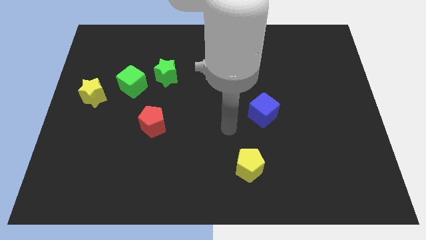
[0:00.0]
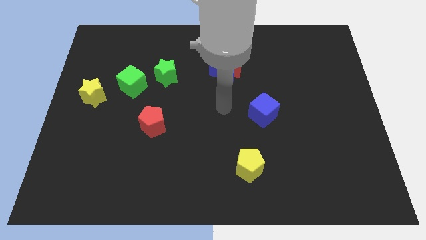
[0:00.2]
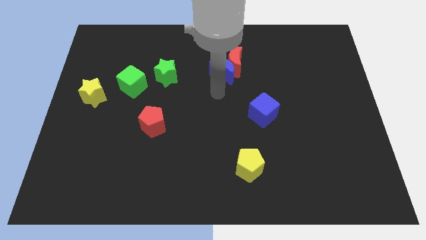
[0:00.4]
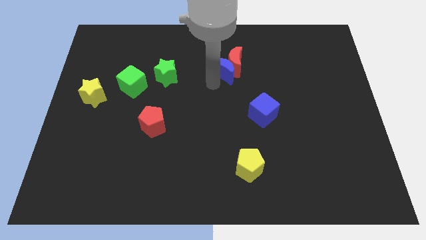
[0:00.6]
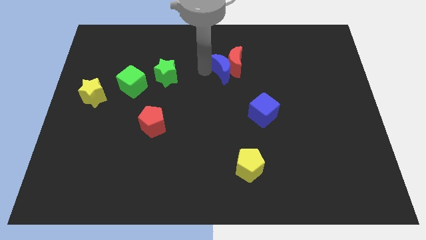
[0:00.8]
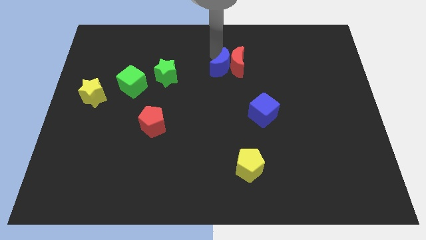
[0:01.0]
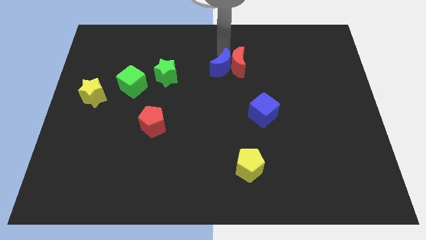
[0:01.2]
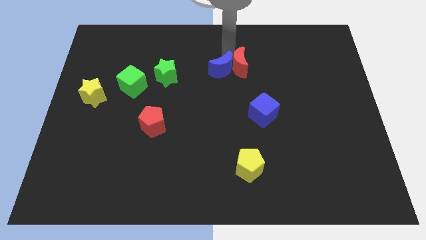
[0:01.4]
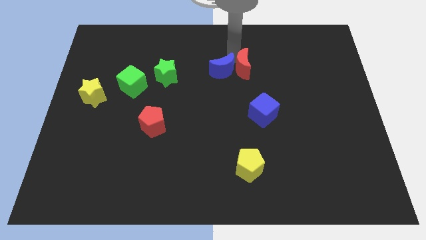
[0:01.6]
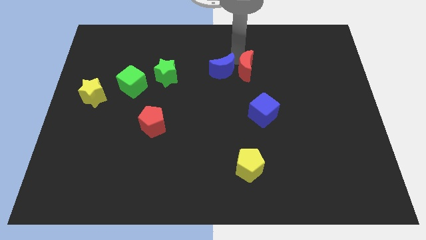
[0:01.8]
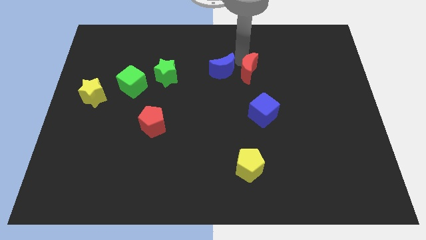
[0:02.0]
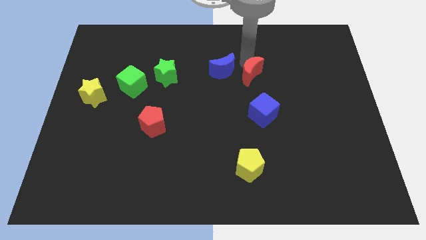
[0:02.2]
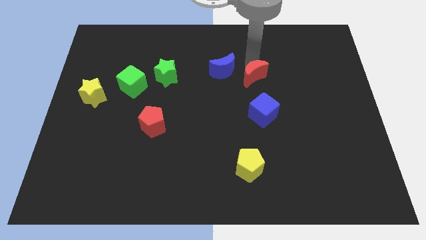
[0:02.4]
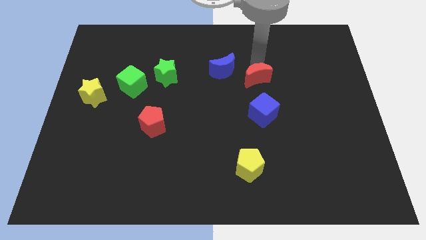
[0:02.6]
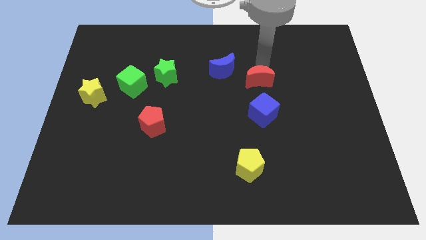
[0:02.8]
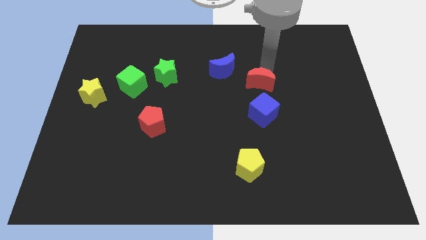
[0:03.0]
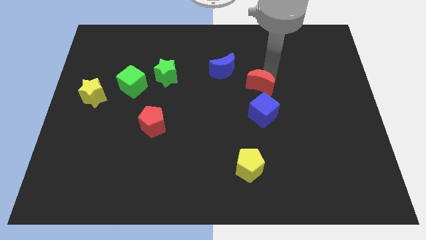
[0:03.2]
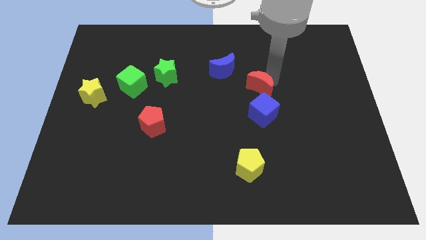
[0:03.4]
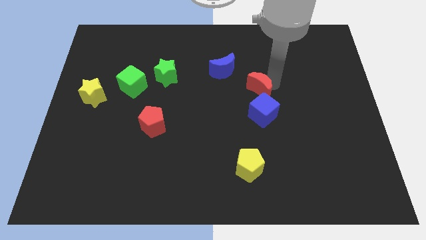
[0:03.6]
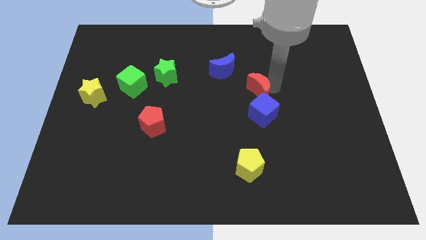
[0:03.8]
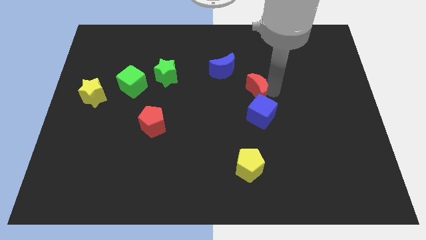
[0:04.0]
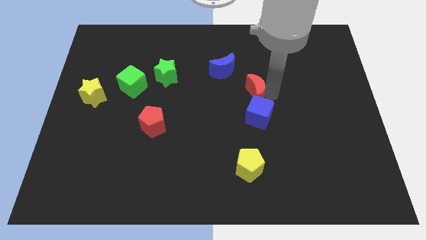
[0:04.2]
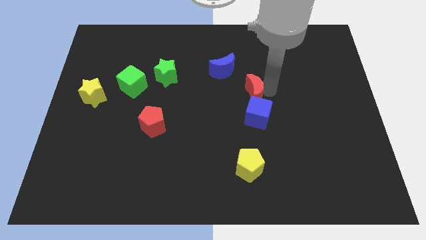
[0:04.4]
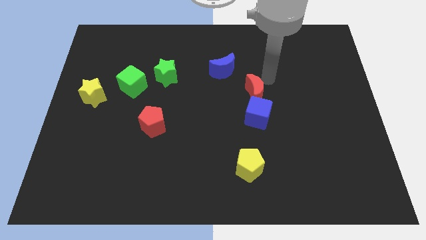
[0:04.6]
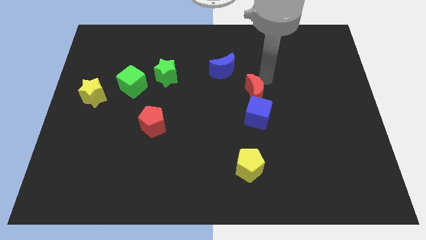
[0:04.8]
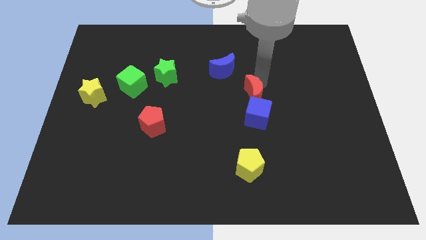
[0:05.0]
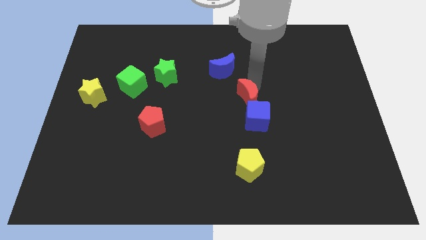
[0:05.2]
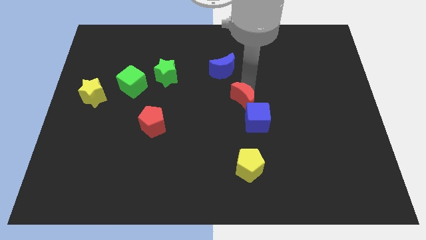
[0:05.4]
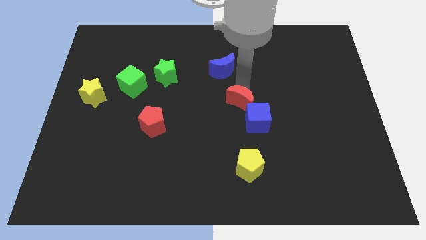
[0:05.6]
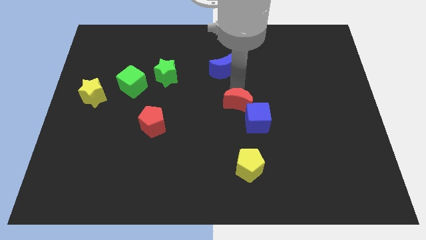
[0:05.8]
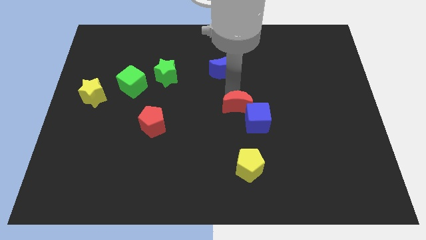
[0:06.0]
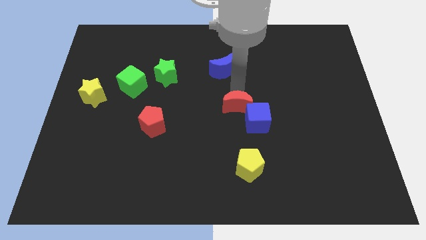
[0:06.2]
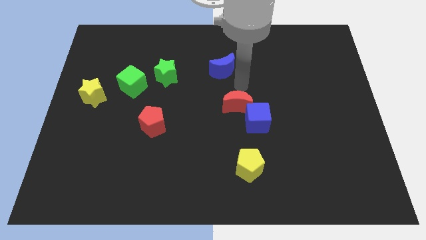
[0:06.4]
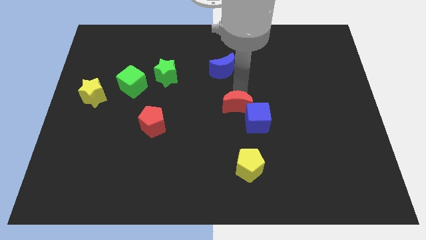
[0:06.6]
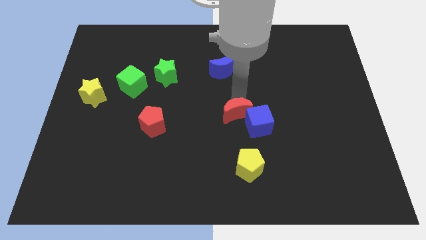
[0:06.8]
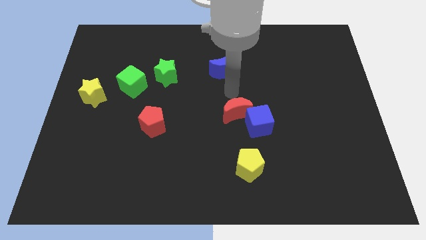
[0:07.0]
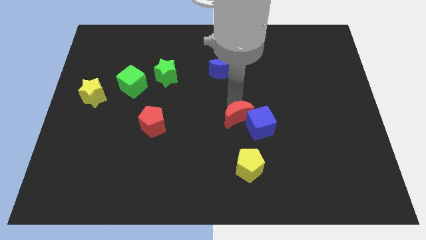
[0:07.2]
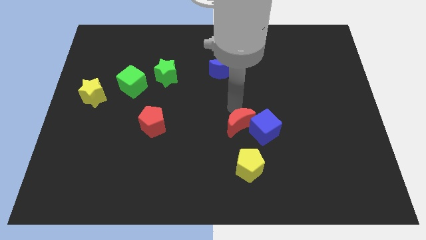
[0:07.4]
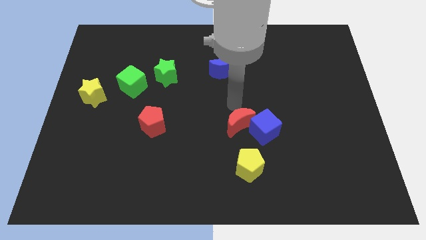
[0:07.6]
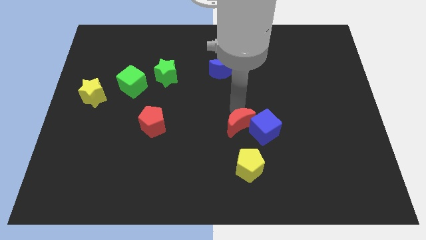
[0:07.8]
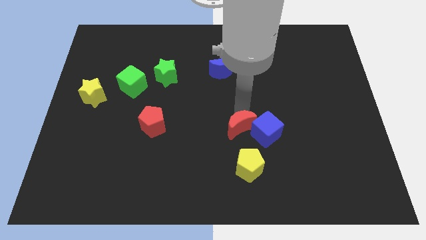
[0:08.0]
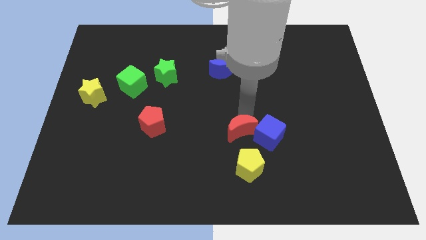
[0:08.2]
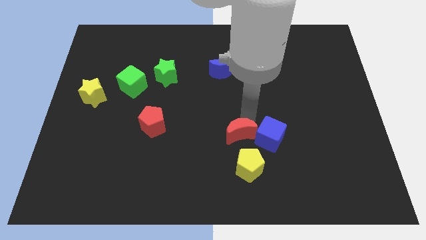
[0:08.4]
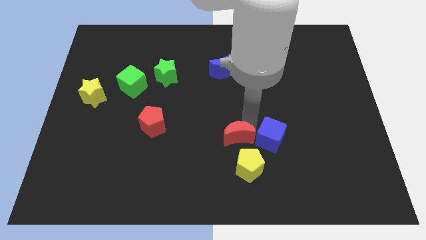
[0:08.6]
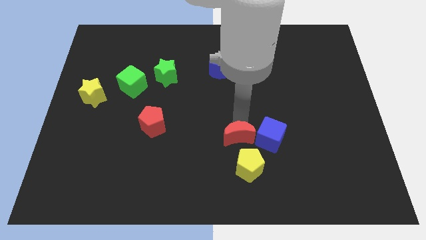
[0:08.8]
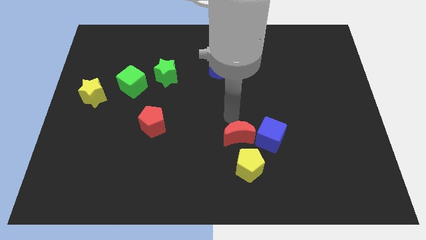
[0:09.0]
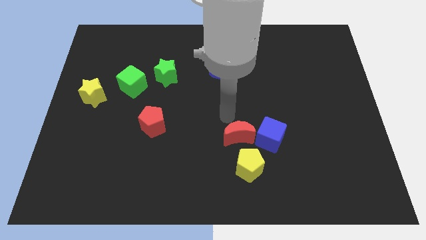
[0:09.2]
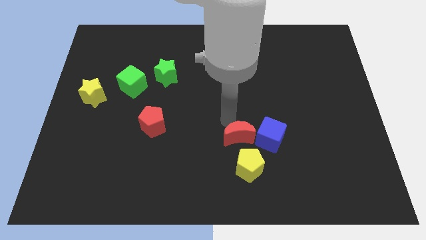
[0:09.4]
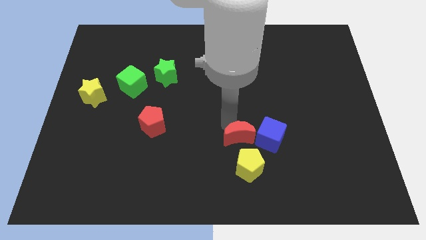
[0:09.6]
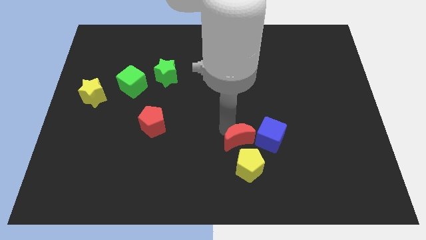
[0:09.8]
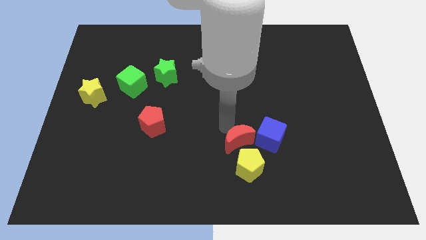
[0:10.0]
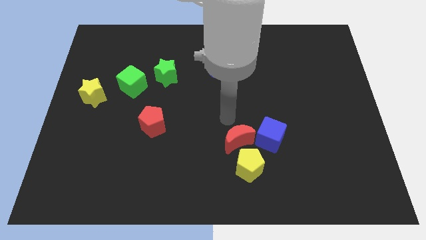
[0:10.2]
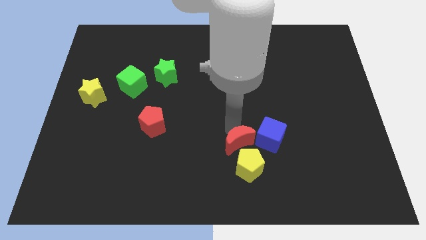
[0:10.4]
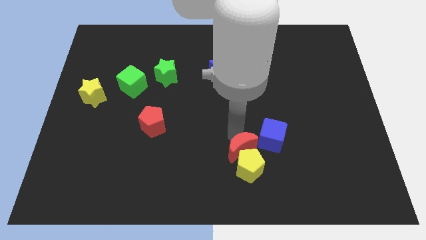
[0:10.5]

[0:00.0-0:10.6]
move the red moon next to the yellow pentagon

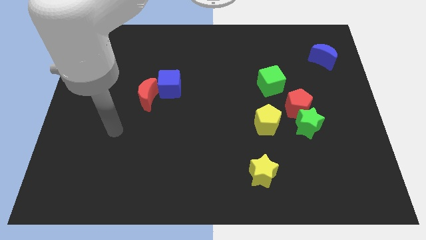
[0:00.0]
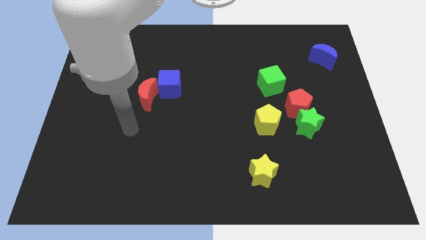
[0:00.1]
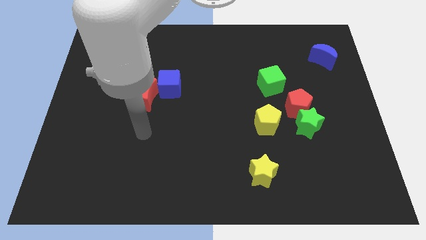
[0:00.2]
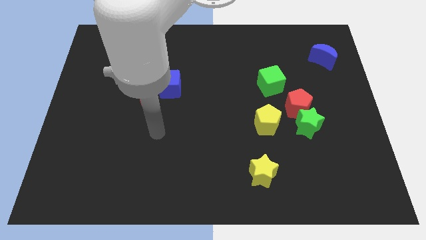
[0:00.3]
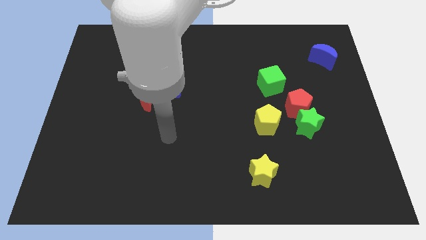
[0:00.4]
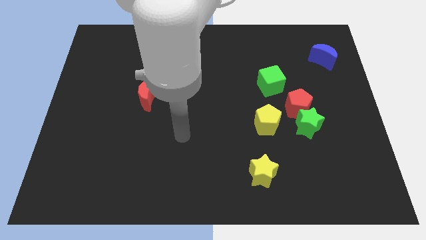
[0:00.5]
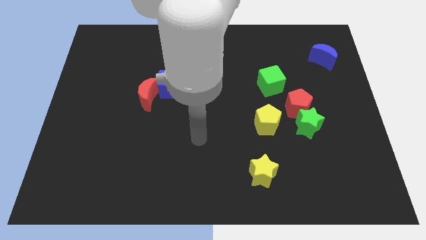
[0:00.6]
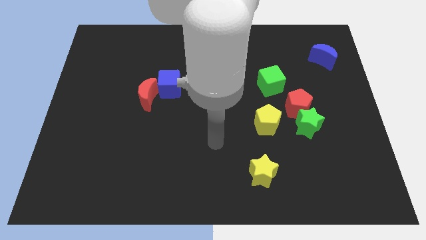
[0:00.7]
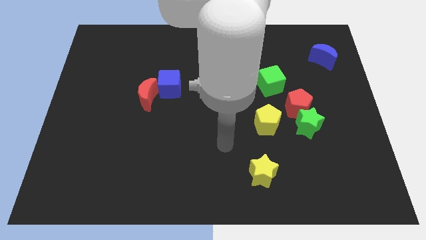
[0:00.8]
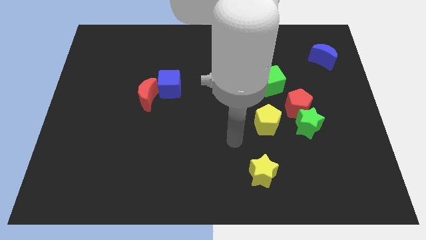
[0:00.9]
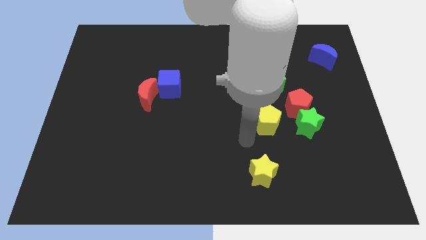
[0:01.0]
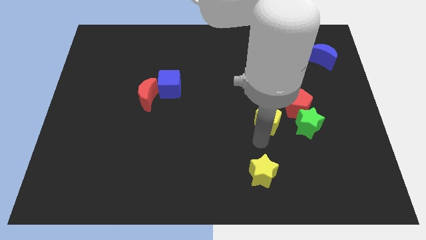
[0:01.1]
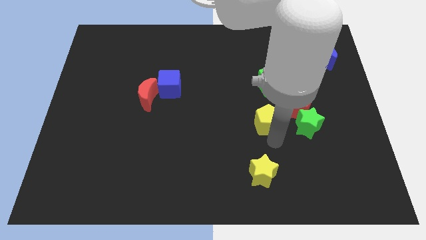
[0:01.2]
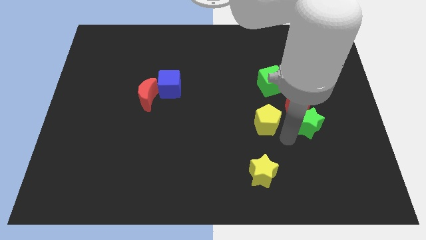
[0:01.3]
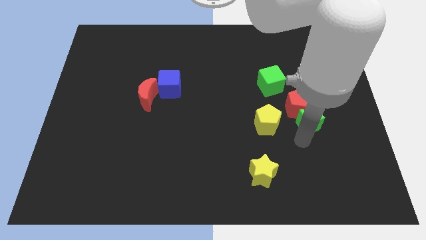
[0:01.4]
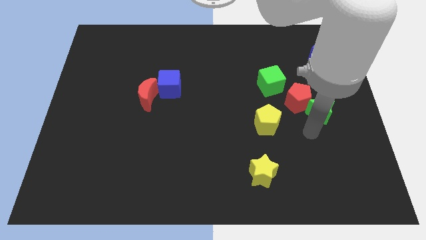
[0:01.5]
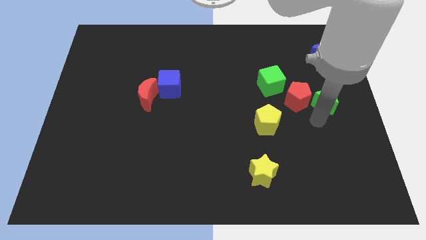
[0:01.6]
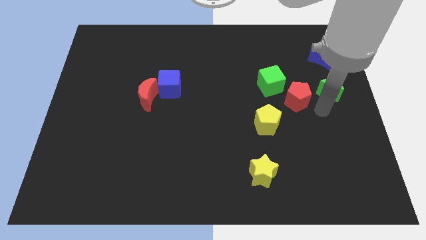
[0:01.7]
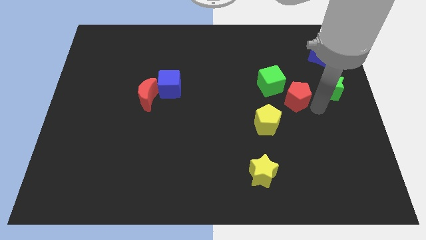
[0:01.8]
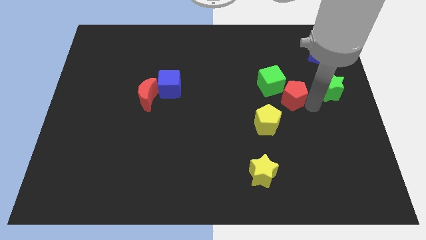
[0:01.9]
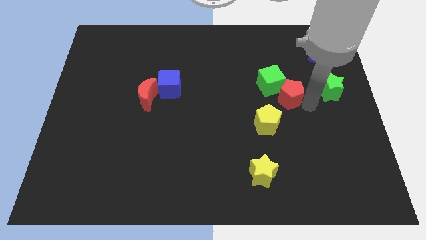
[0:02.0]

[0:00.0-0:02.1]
push the red pentagon next to the green cube
